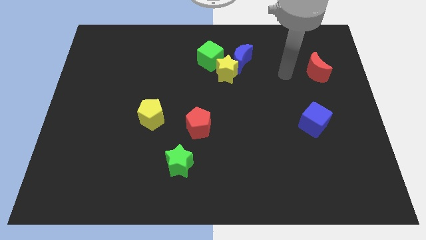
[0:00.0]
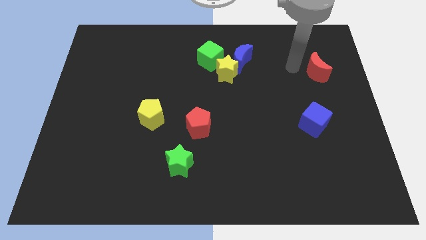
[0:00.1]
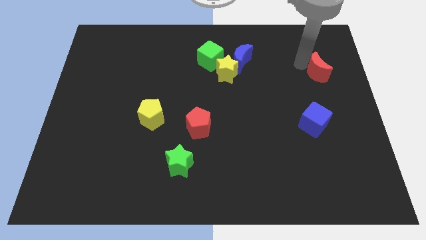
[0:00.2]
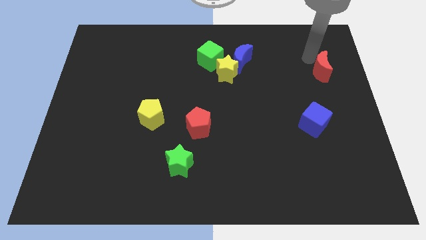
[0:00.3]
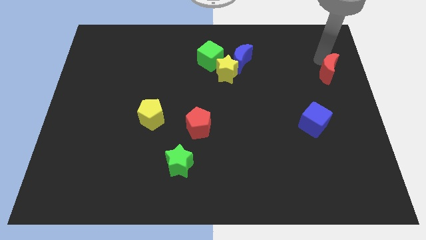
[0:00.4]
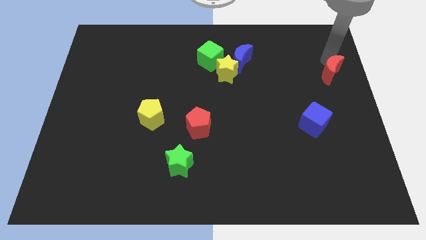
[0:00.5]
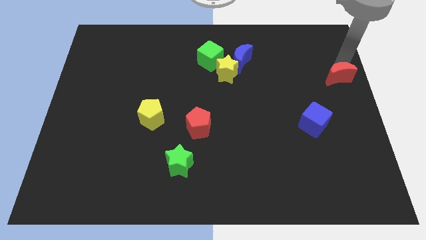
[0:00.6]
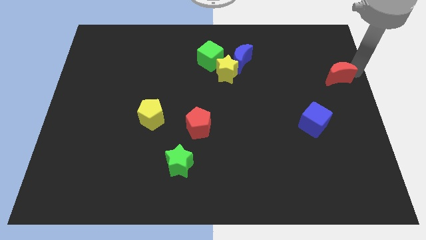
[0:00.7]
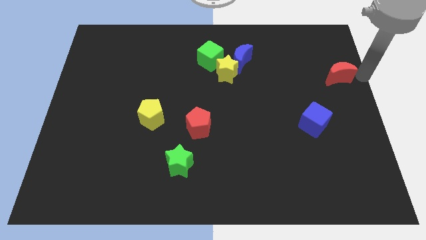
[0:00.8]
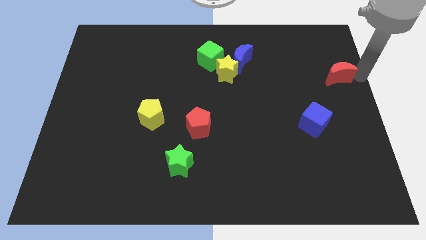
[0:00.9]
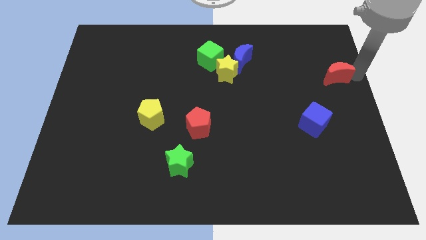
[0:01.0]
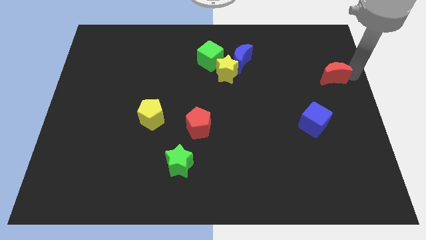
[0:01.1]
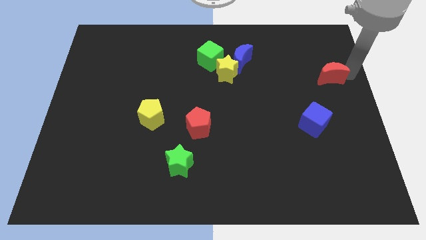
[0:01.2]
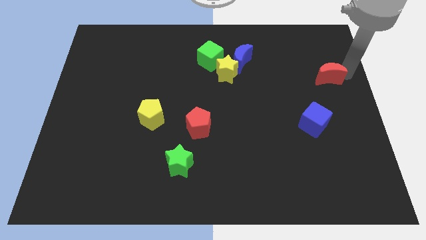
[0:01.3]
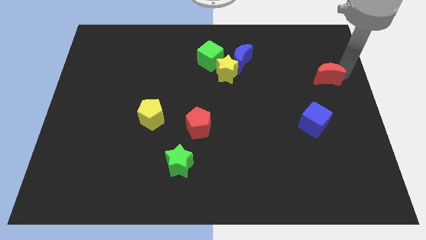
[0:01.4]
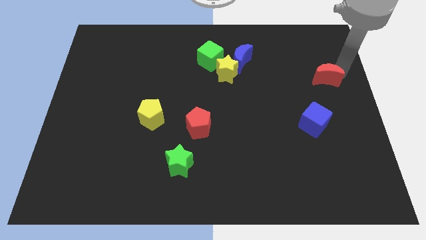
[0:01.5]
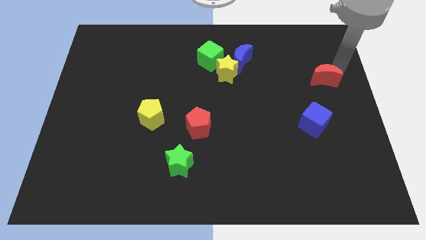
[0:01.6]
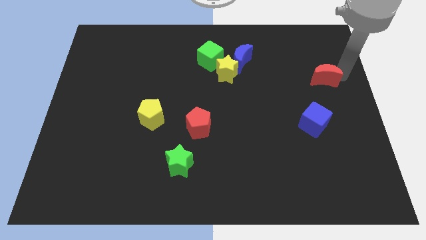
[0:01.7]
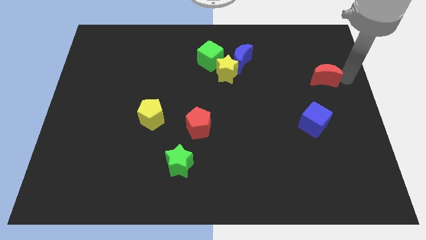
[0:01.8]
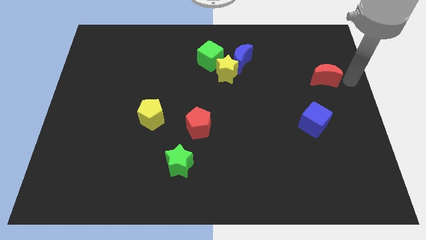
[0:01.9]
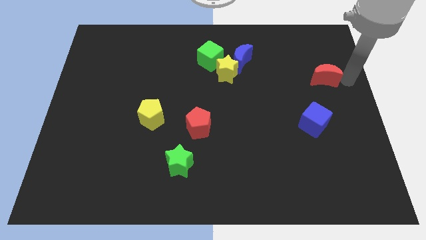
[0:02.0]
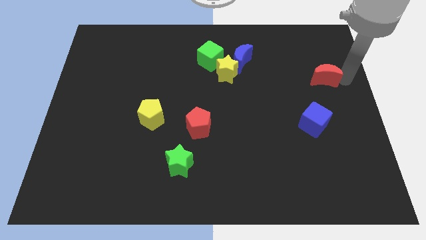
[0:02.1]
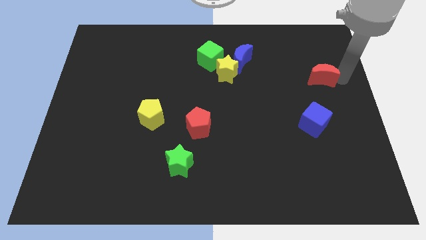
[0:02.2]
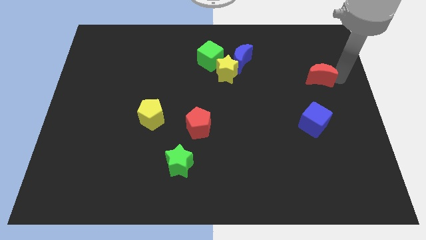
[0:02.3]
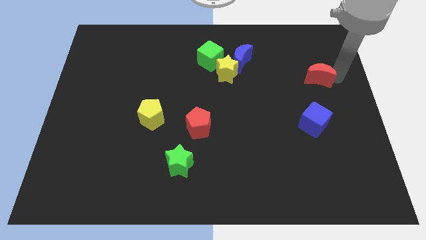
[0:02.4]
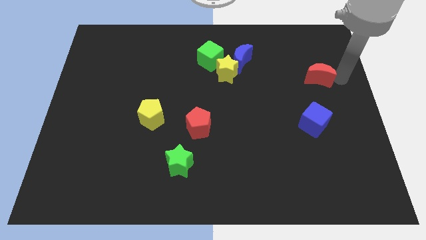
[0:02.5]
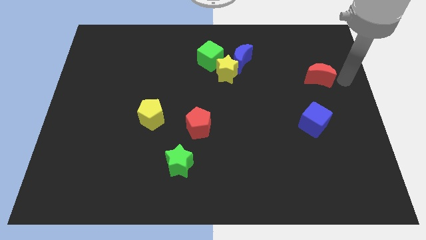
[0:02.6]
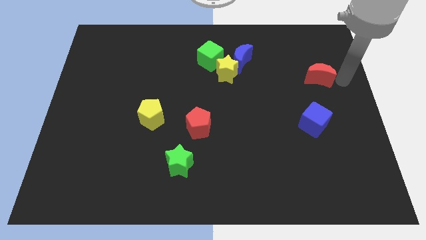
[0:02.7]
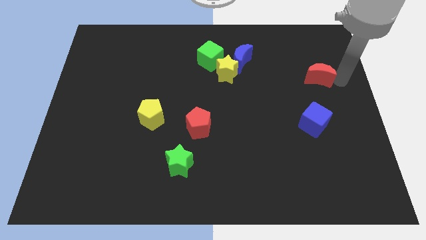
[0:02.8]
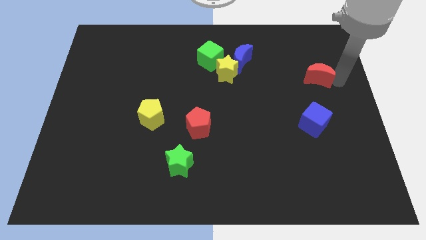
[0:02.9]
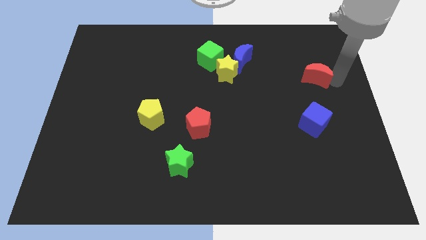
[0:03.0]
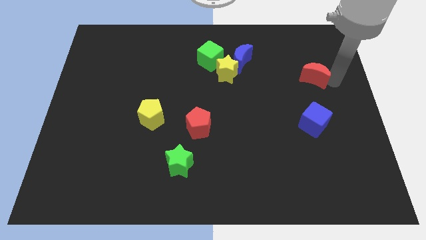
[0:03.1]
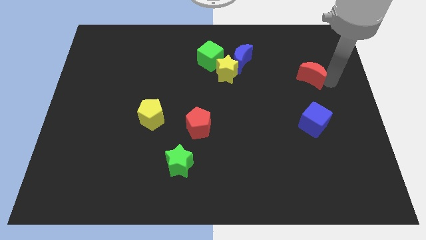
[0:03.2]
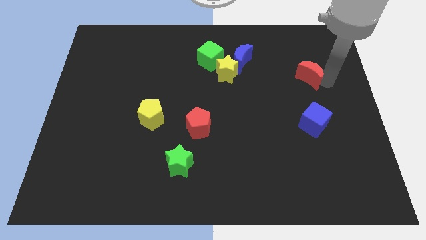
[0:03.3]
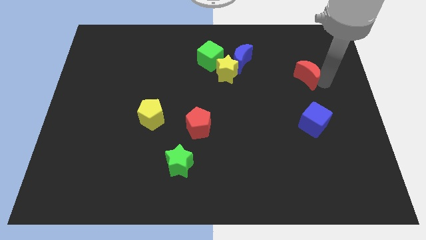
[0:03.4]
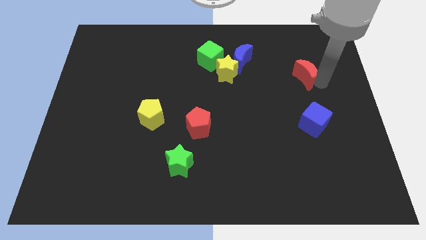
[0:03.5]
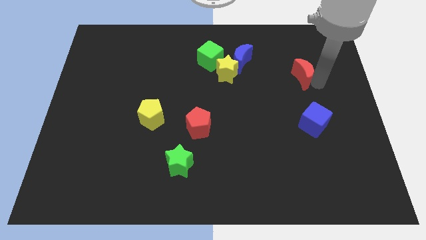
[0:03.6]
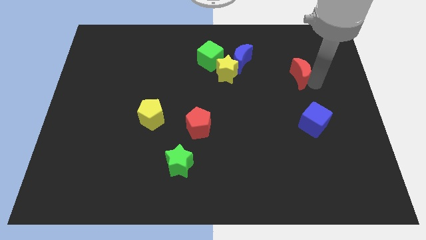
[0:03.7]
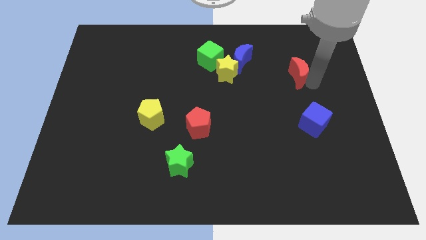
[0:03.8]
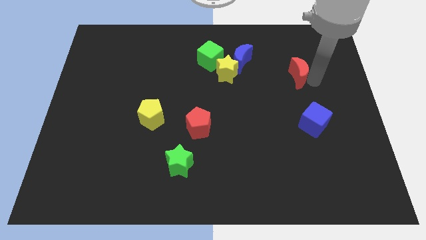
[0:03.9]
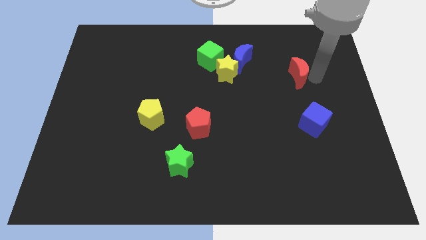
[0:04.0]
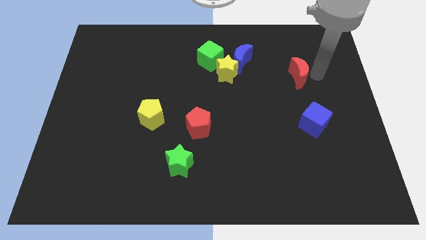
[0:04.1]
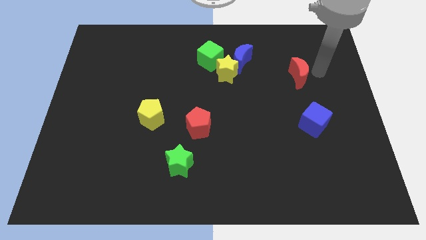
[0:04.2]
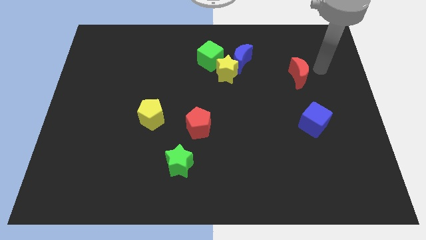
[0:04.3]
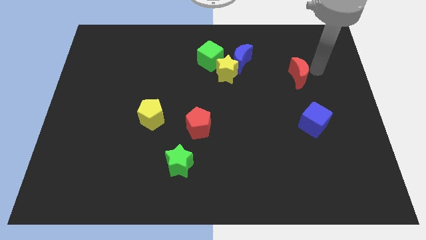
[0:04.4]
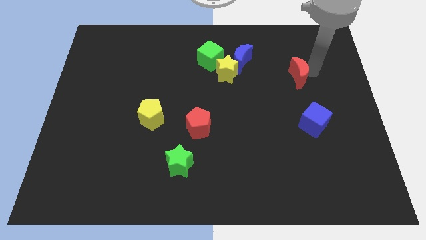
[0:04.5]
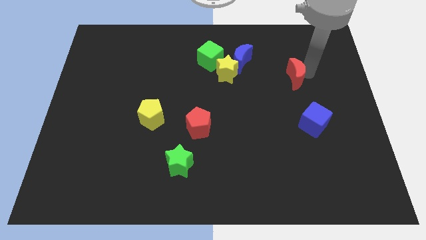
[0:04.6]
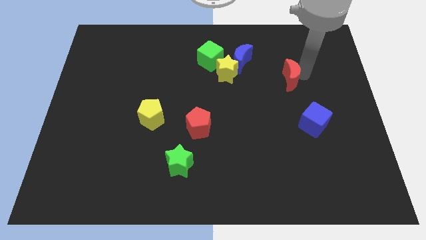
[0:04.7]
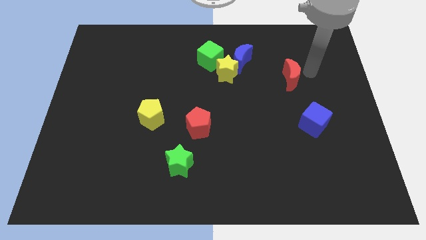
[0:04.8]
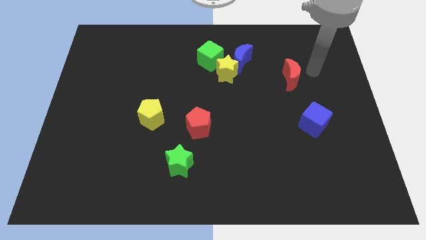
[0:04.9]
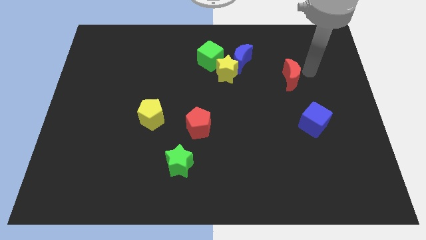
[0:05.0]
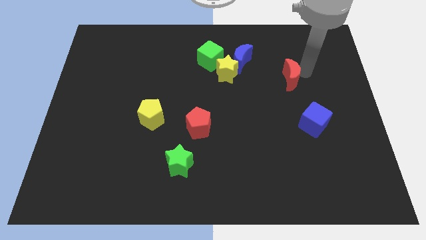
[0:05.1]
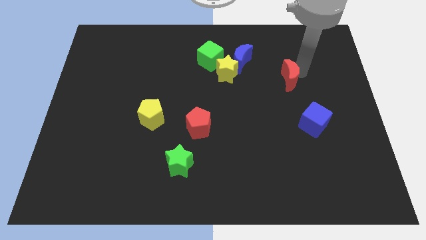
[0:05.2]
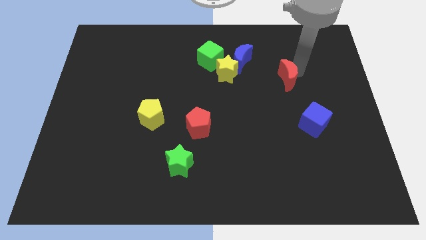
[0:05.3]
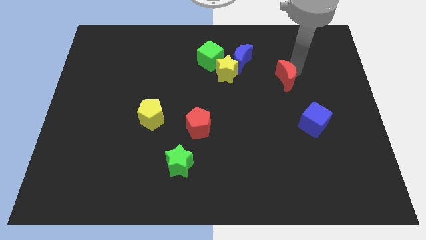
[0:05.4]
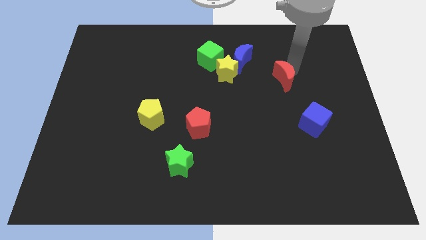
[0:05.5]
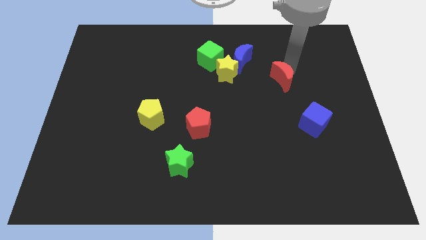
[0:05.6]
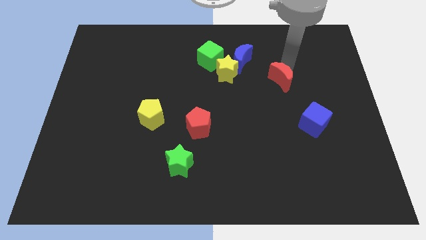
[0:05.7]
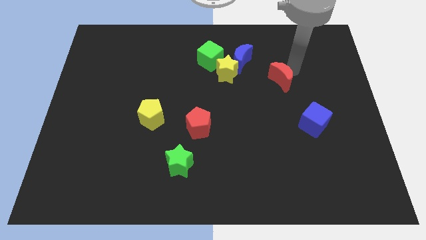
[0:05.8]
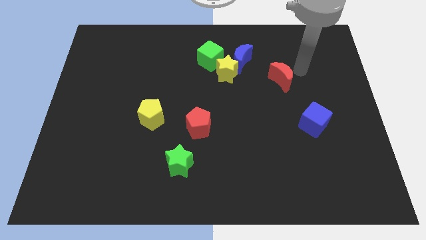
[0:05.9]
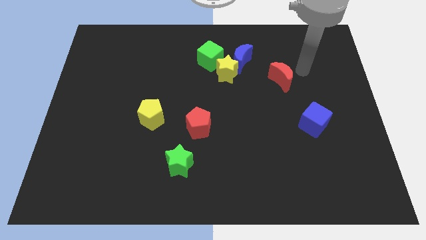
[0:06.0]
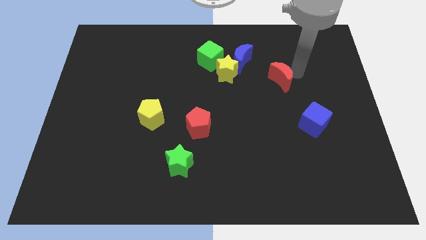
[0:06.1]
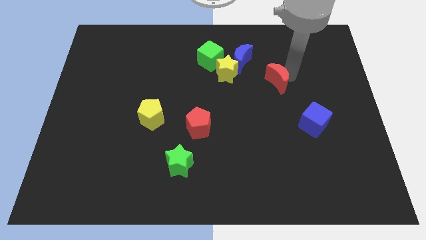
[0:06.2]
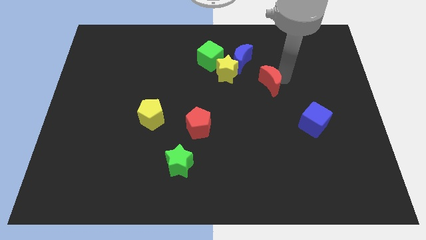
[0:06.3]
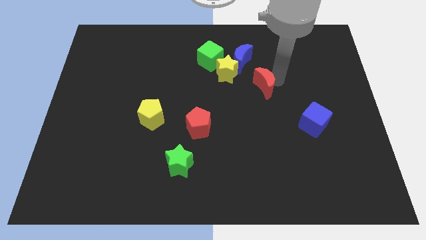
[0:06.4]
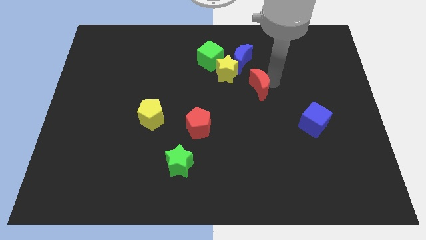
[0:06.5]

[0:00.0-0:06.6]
put the red moon to the center of the board
